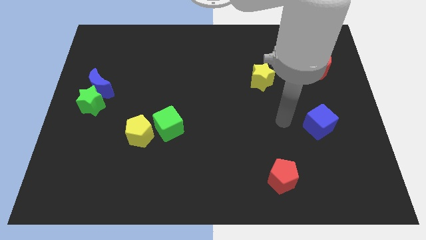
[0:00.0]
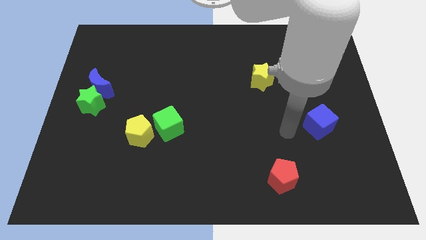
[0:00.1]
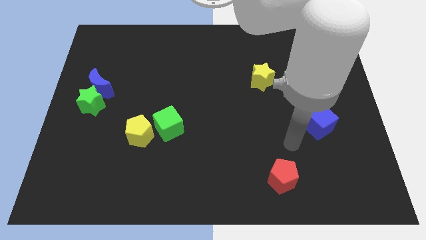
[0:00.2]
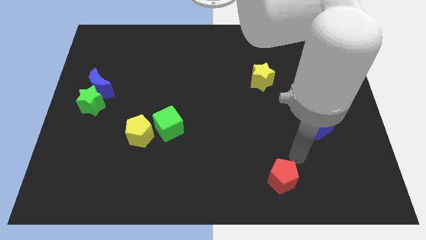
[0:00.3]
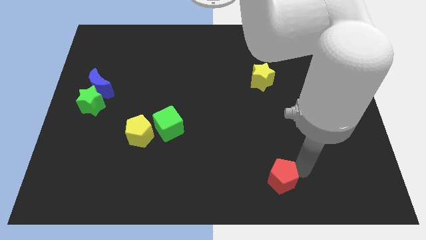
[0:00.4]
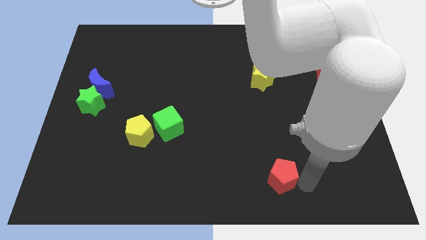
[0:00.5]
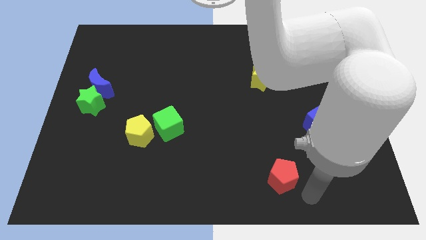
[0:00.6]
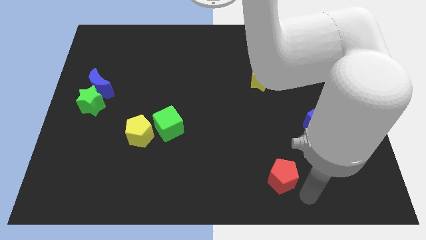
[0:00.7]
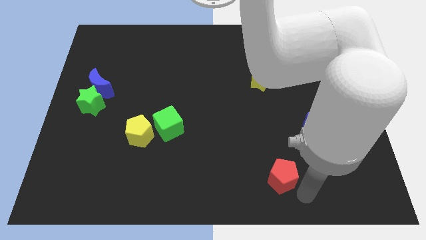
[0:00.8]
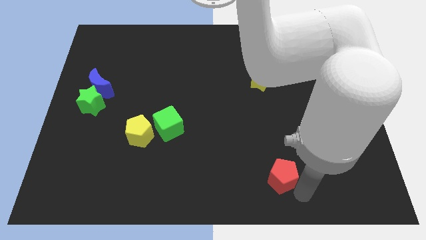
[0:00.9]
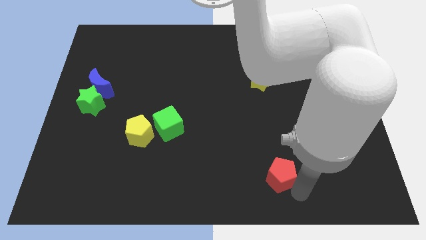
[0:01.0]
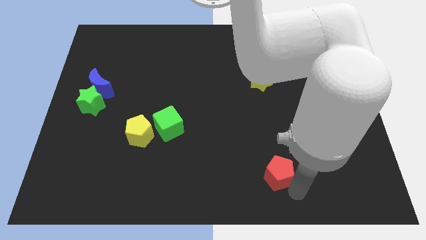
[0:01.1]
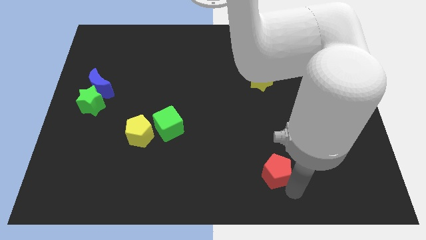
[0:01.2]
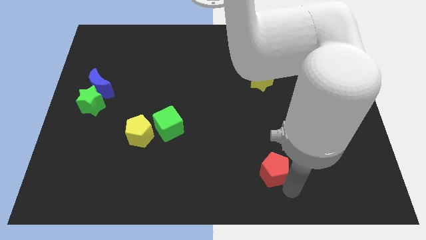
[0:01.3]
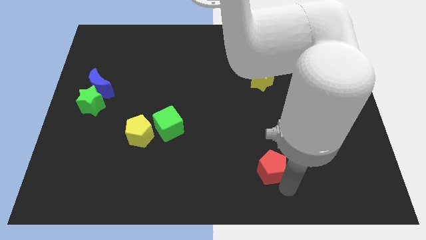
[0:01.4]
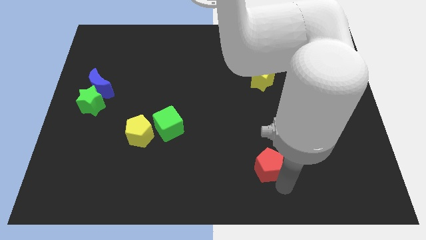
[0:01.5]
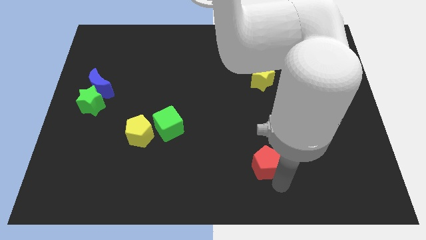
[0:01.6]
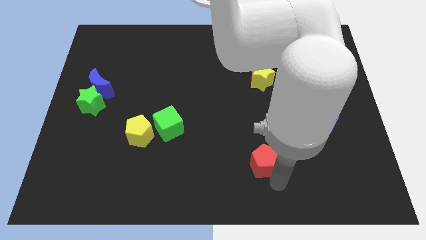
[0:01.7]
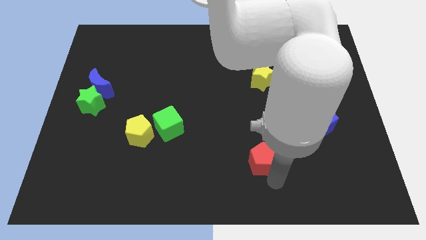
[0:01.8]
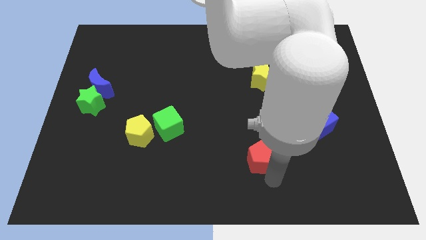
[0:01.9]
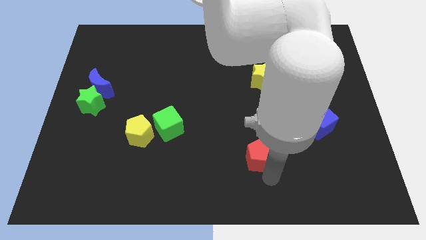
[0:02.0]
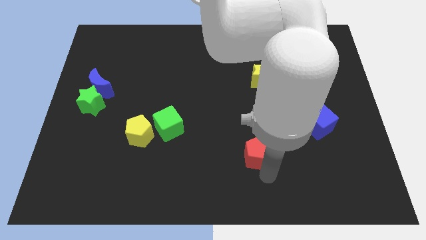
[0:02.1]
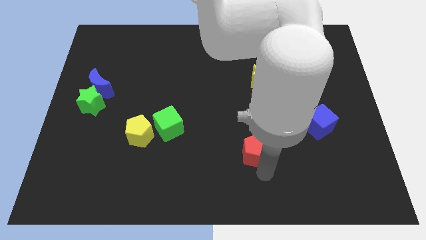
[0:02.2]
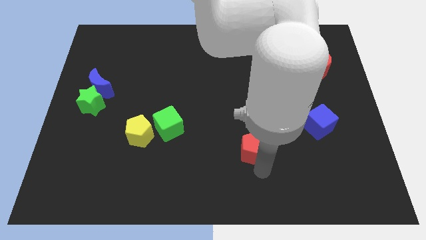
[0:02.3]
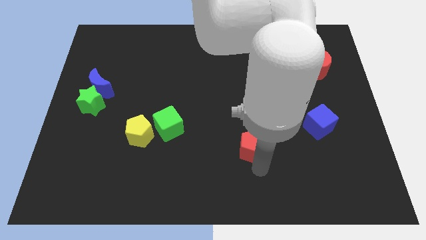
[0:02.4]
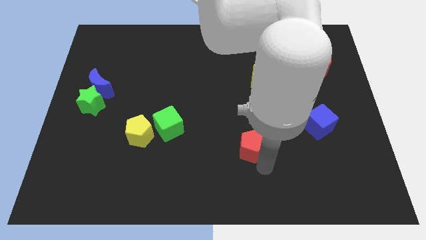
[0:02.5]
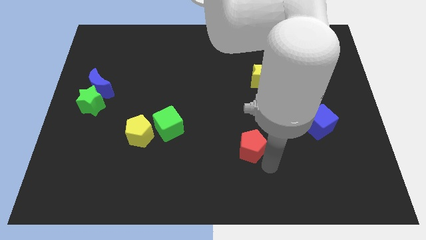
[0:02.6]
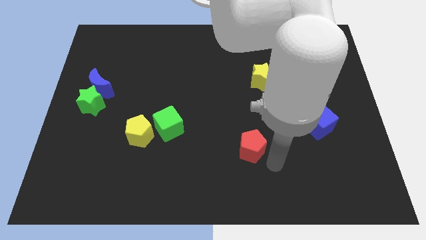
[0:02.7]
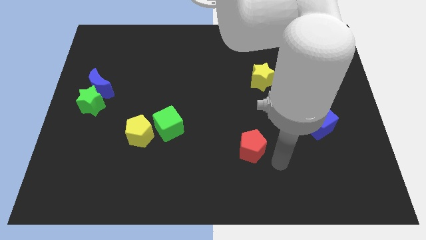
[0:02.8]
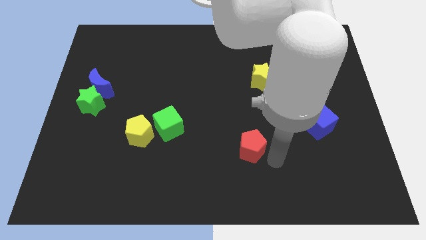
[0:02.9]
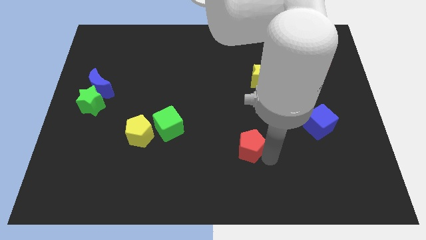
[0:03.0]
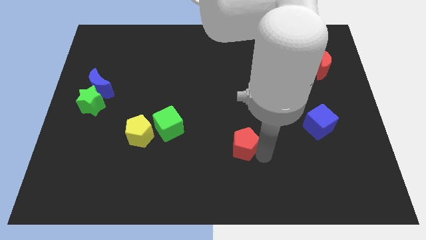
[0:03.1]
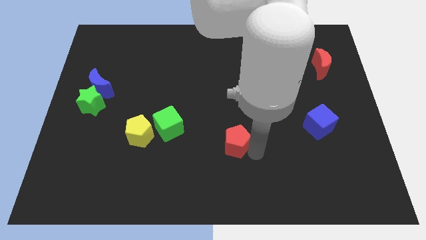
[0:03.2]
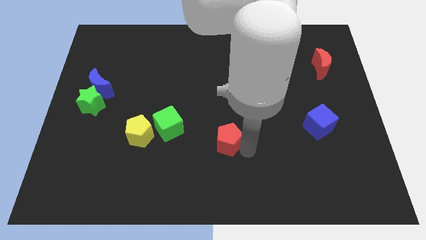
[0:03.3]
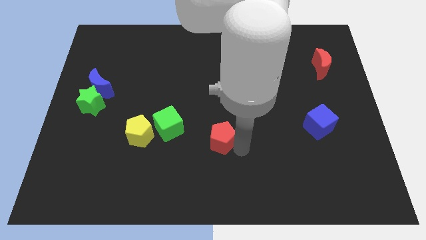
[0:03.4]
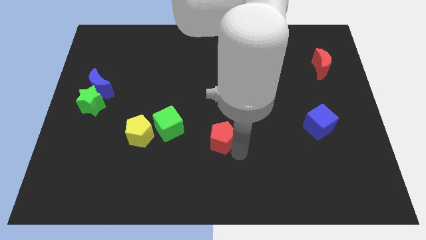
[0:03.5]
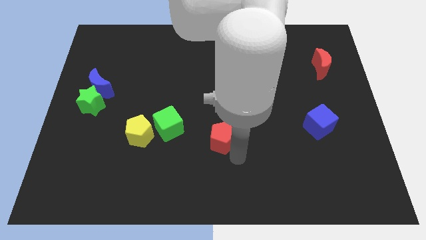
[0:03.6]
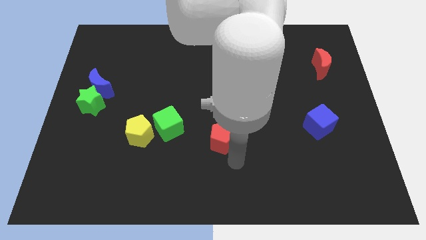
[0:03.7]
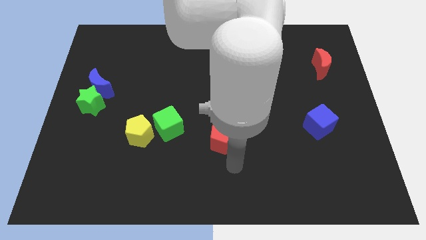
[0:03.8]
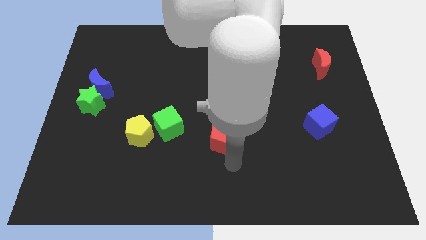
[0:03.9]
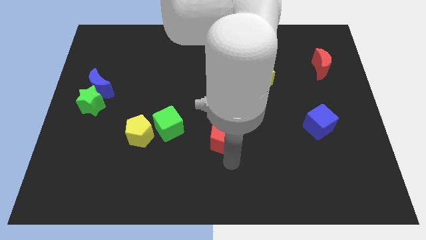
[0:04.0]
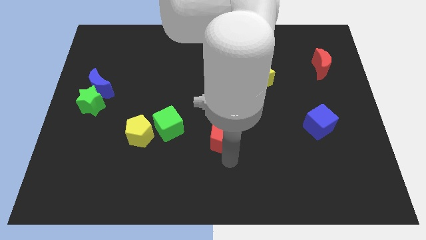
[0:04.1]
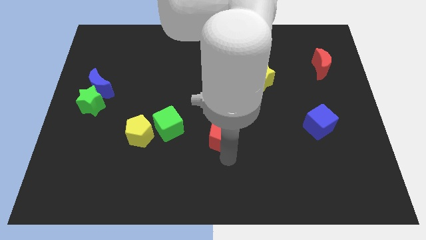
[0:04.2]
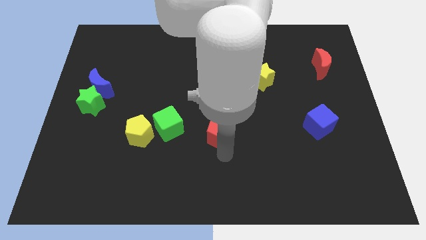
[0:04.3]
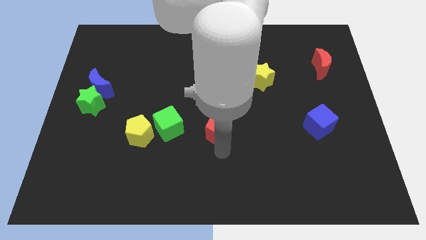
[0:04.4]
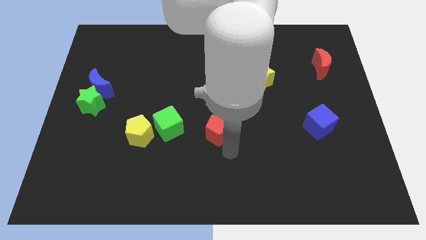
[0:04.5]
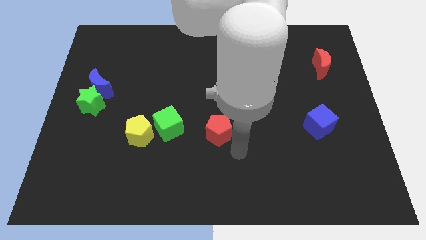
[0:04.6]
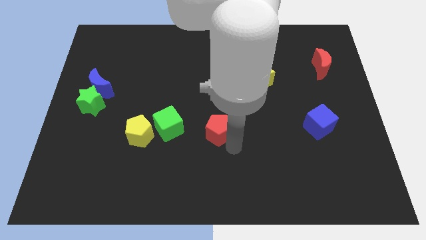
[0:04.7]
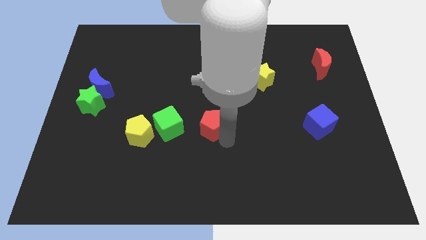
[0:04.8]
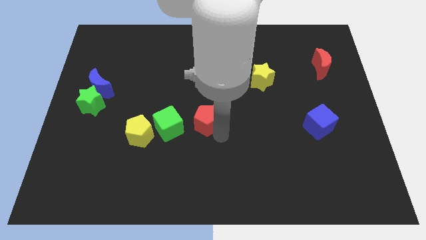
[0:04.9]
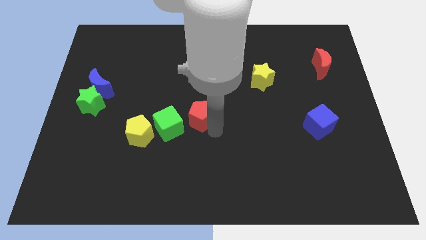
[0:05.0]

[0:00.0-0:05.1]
slide the red pentagon to the top right side of the green cube

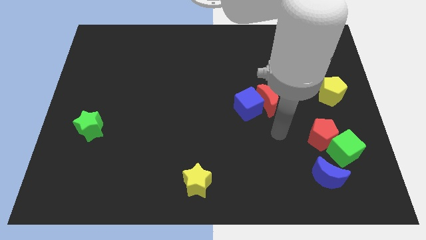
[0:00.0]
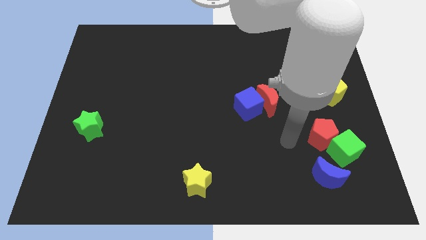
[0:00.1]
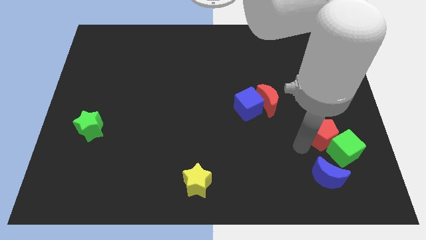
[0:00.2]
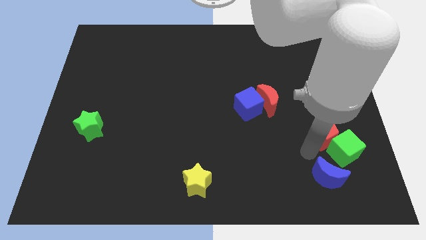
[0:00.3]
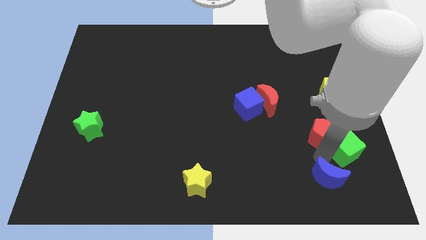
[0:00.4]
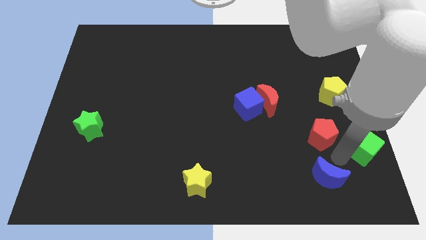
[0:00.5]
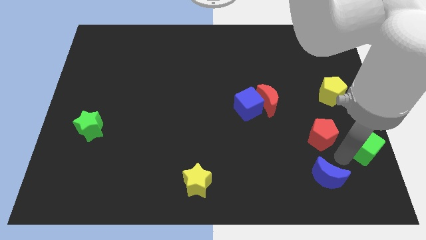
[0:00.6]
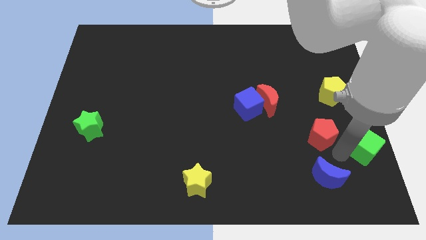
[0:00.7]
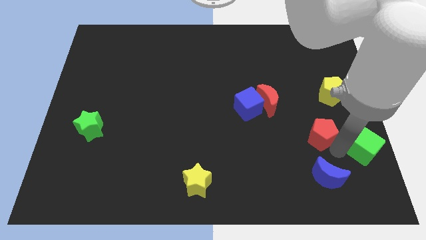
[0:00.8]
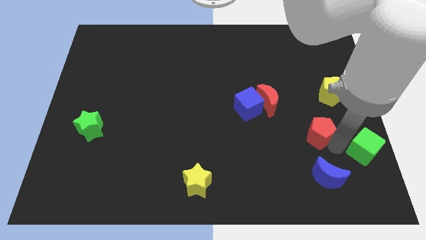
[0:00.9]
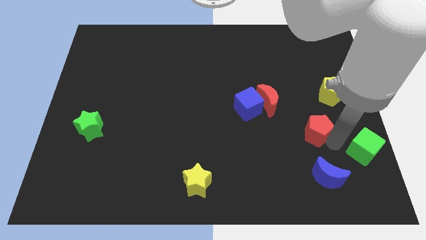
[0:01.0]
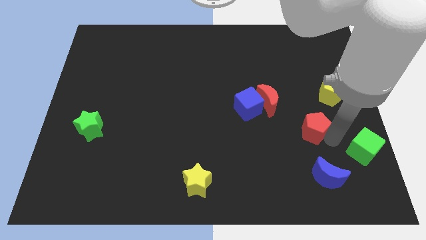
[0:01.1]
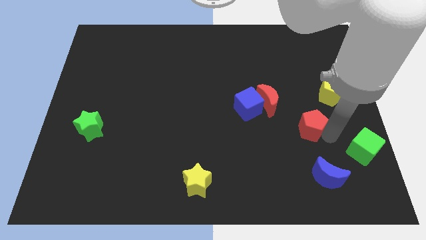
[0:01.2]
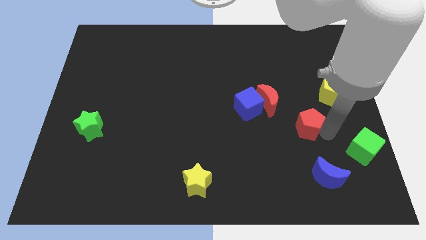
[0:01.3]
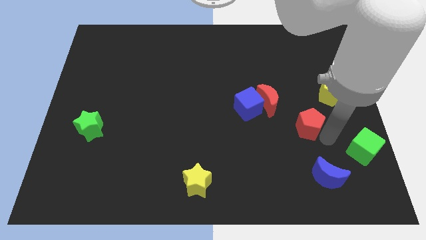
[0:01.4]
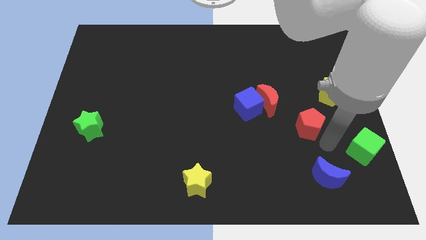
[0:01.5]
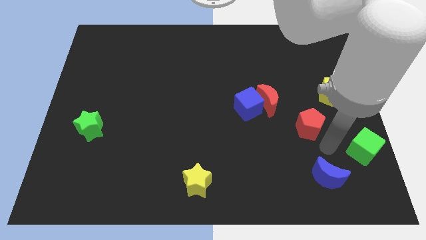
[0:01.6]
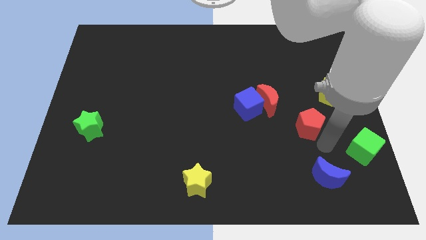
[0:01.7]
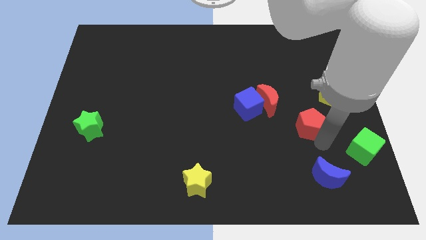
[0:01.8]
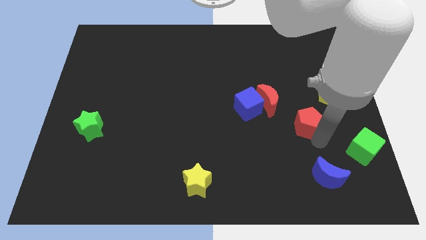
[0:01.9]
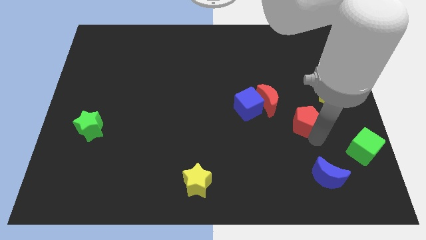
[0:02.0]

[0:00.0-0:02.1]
put the red pentagon right of the blue cube
